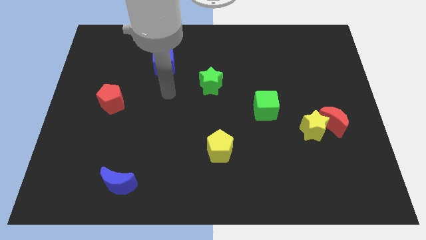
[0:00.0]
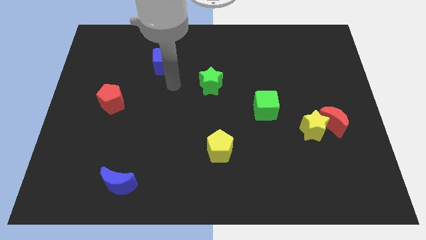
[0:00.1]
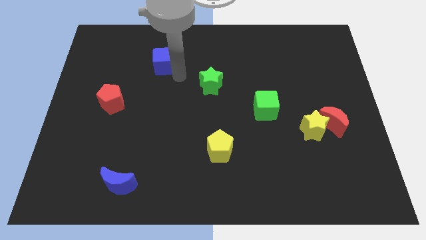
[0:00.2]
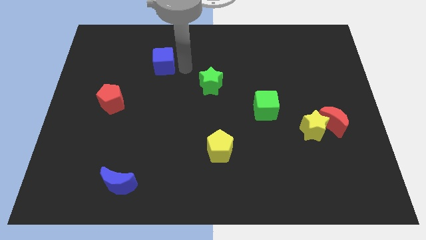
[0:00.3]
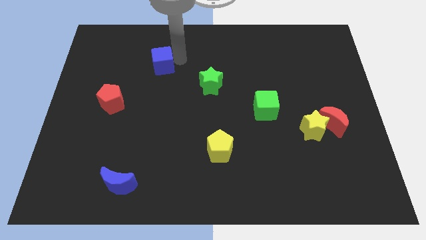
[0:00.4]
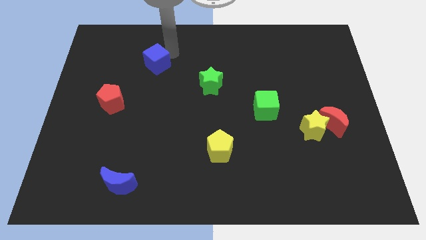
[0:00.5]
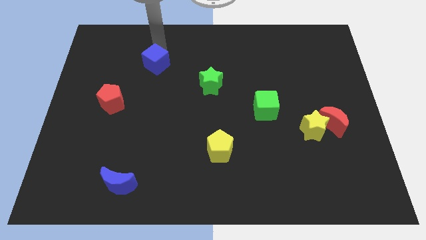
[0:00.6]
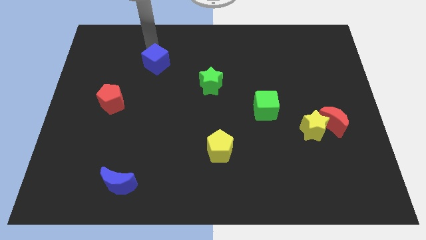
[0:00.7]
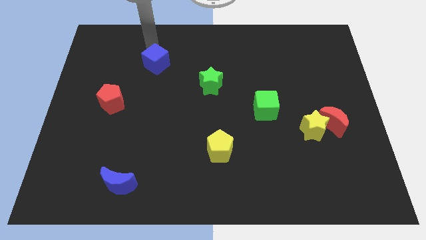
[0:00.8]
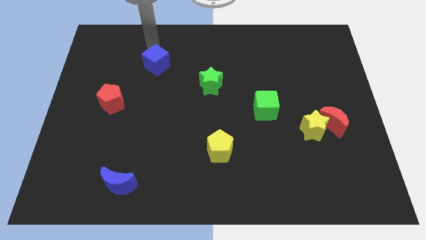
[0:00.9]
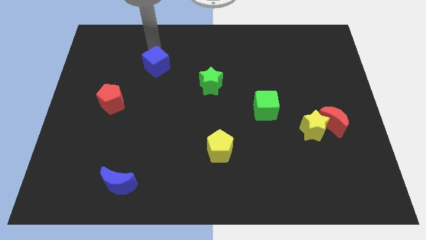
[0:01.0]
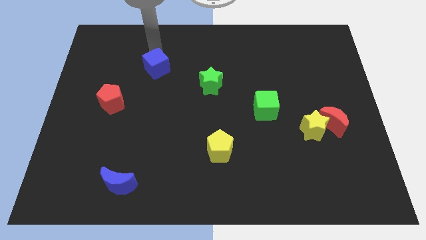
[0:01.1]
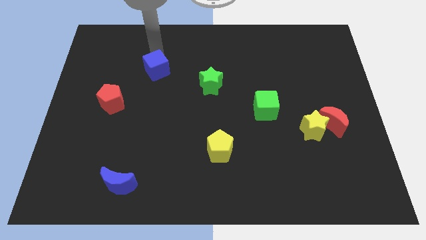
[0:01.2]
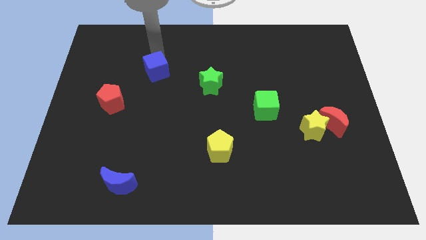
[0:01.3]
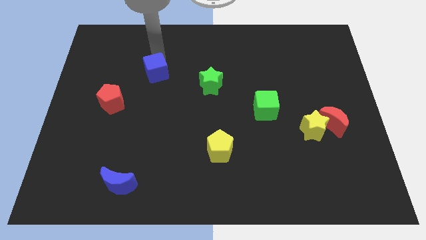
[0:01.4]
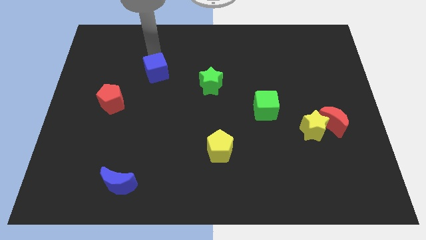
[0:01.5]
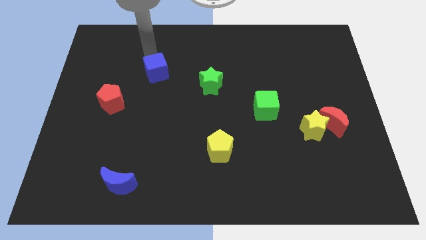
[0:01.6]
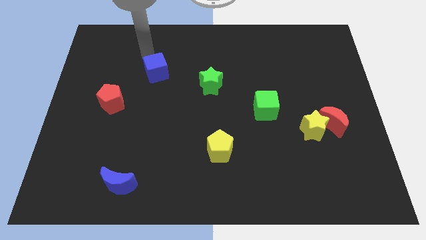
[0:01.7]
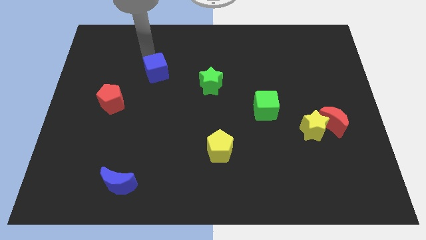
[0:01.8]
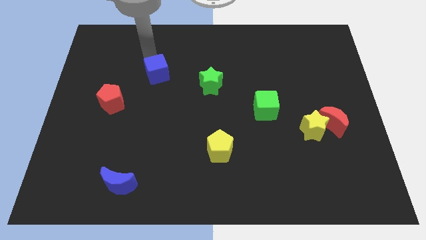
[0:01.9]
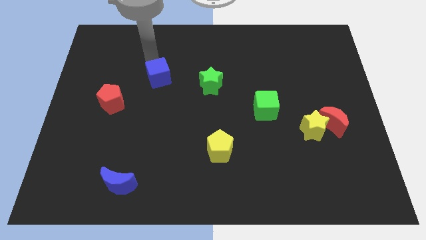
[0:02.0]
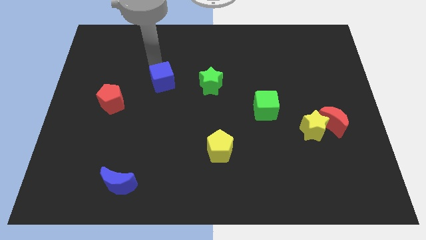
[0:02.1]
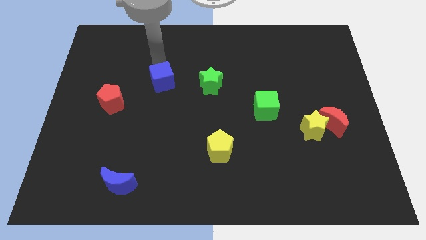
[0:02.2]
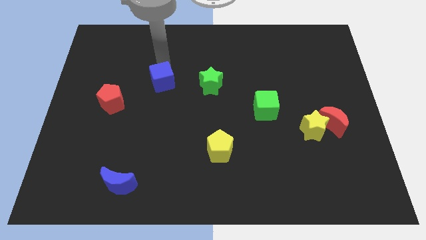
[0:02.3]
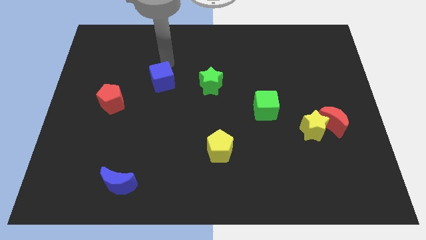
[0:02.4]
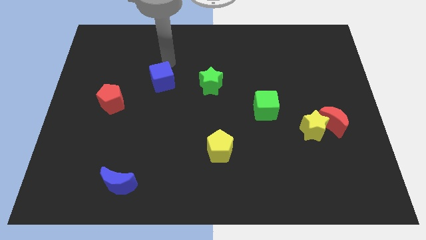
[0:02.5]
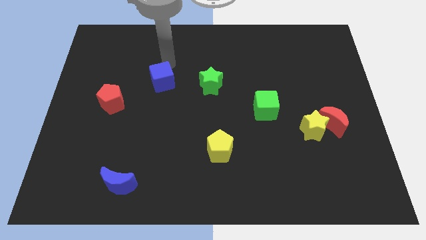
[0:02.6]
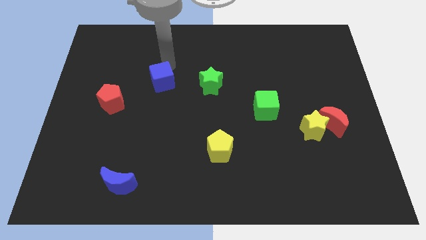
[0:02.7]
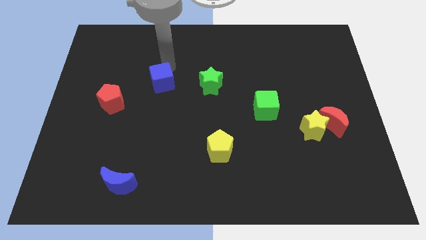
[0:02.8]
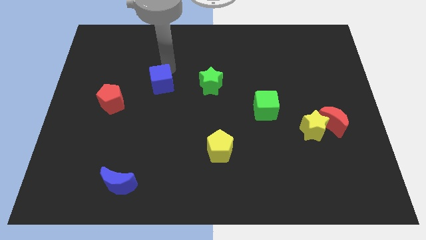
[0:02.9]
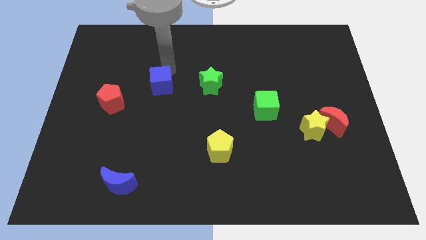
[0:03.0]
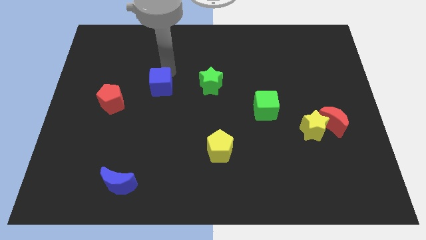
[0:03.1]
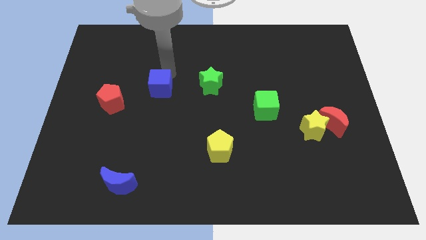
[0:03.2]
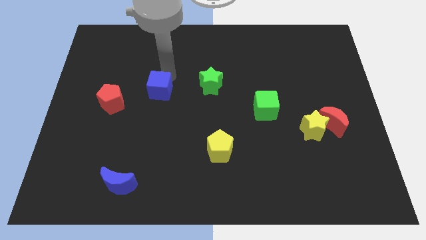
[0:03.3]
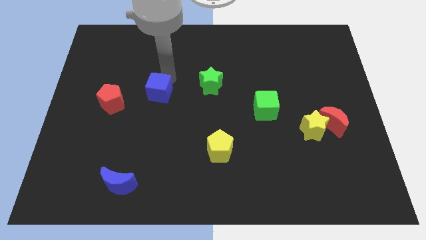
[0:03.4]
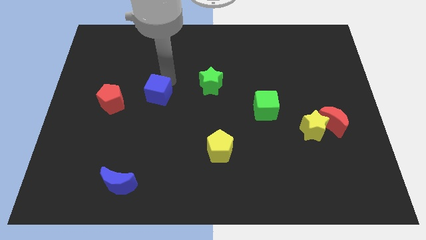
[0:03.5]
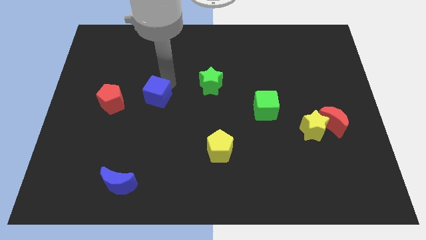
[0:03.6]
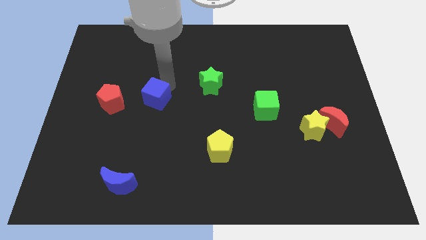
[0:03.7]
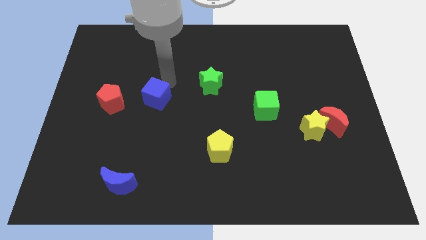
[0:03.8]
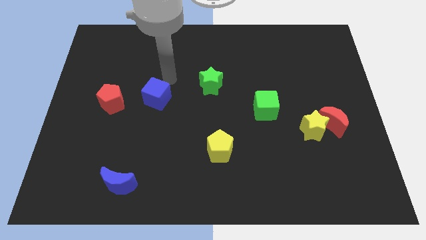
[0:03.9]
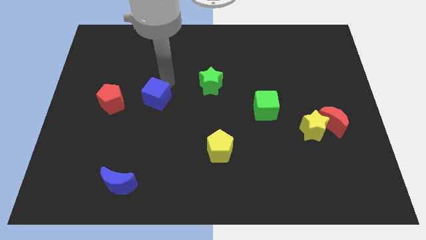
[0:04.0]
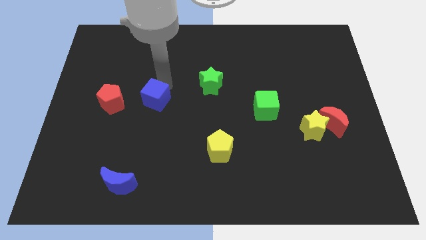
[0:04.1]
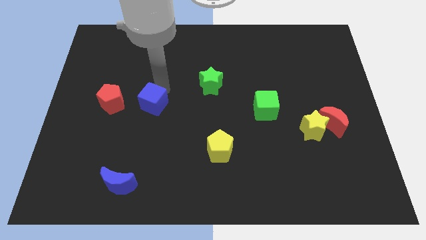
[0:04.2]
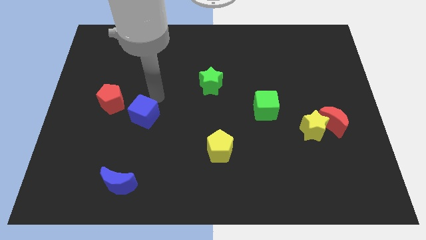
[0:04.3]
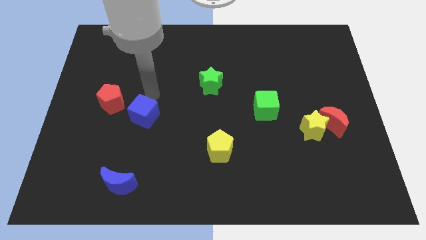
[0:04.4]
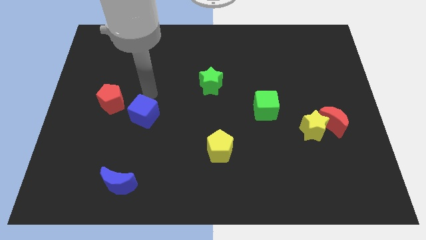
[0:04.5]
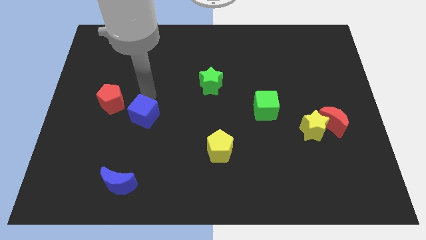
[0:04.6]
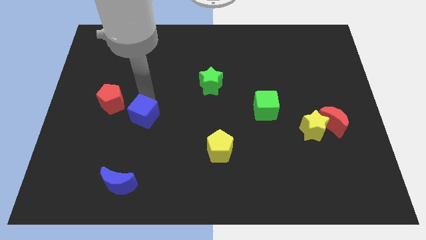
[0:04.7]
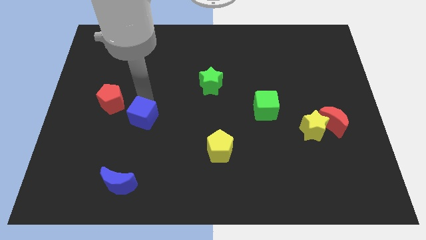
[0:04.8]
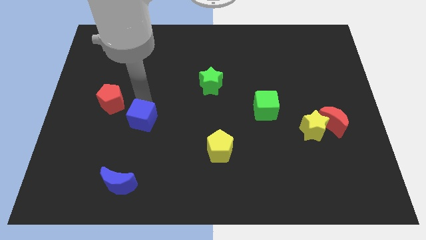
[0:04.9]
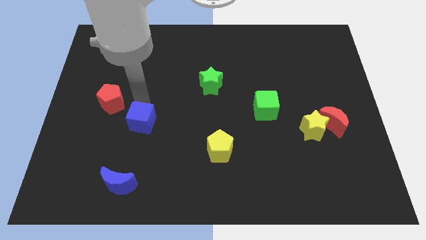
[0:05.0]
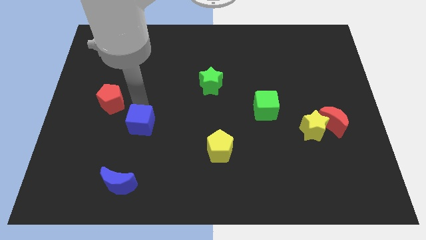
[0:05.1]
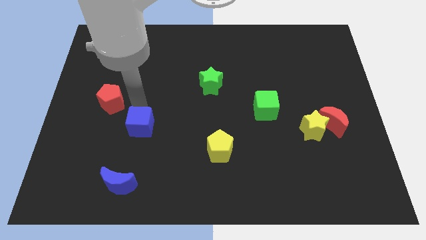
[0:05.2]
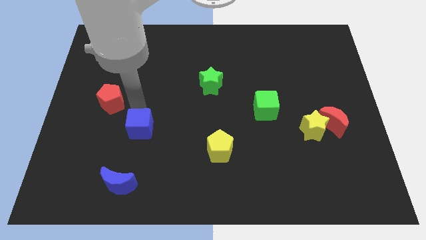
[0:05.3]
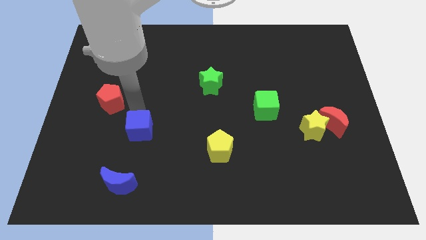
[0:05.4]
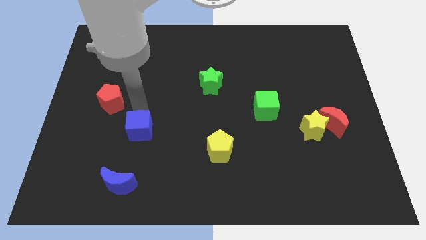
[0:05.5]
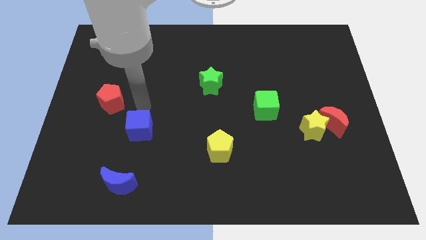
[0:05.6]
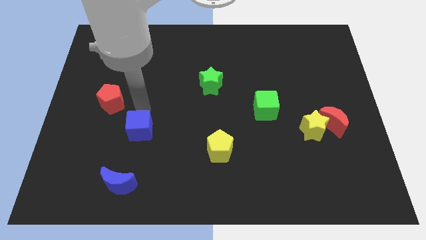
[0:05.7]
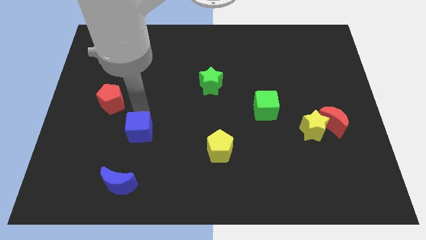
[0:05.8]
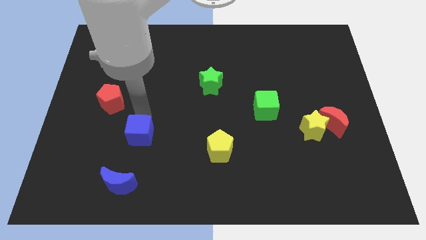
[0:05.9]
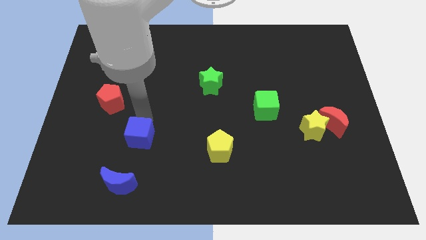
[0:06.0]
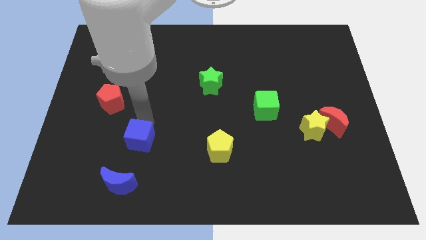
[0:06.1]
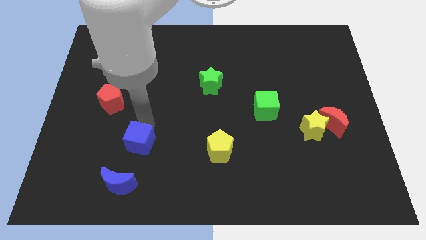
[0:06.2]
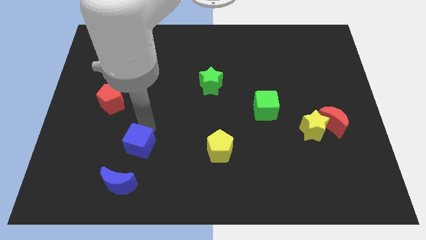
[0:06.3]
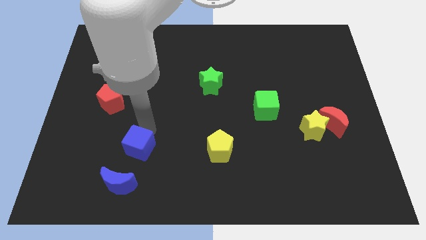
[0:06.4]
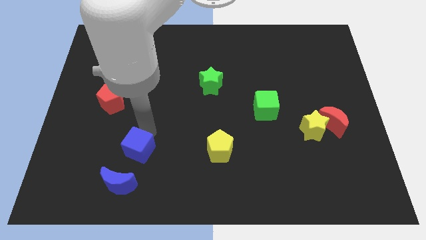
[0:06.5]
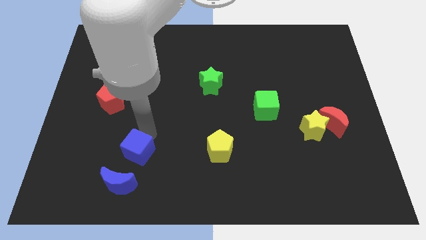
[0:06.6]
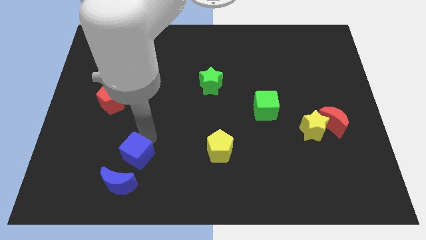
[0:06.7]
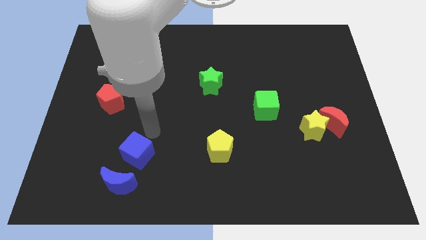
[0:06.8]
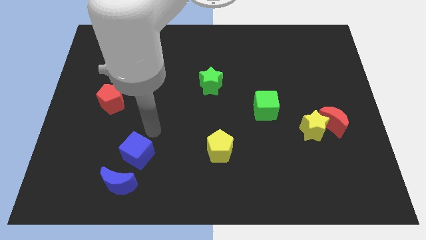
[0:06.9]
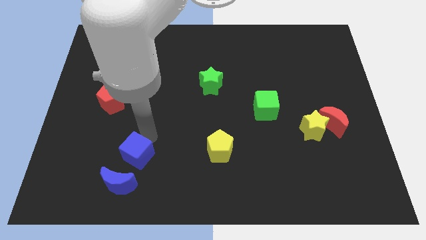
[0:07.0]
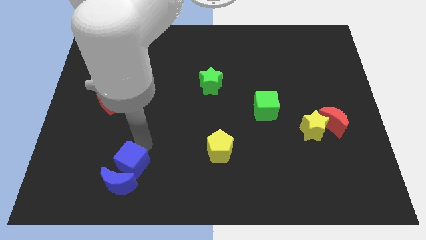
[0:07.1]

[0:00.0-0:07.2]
slide the blue cube to the blue moon
